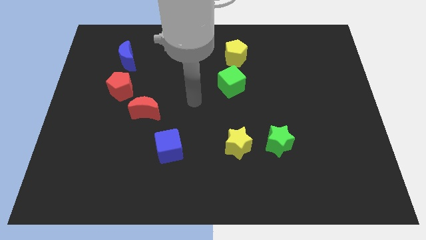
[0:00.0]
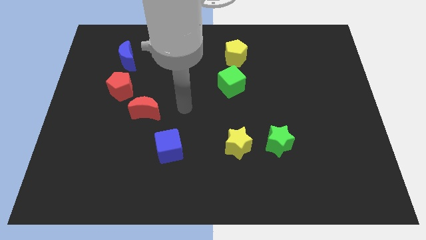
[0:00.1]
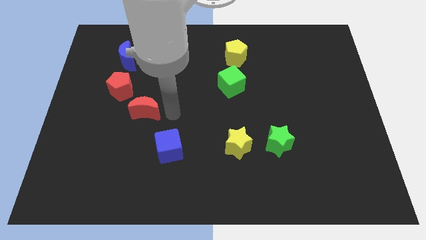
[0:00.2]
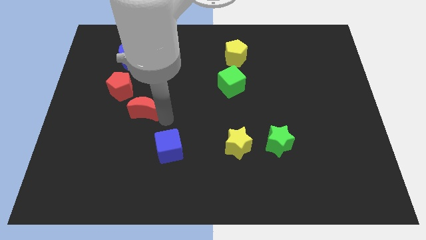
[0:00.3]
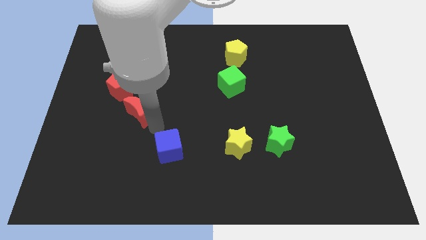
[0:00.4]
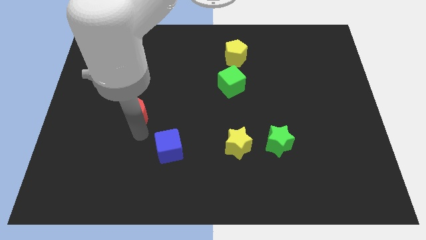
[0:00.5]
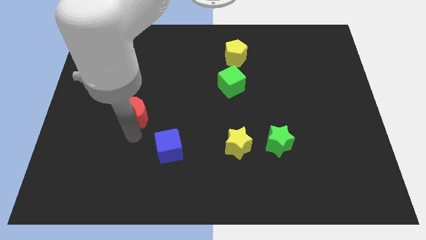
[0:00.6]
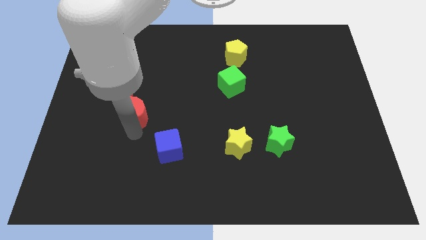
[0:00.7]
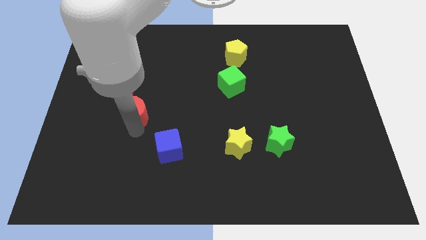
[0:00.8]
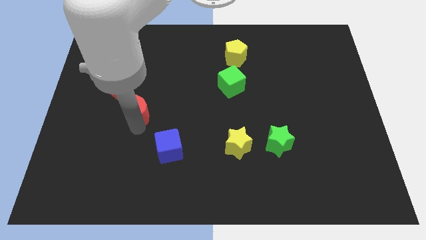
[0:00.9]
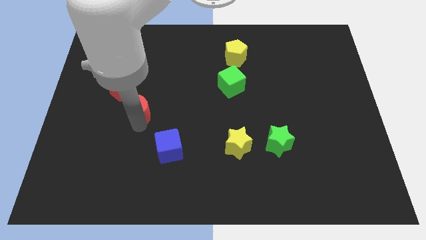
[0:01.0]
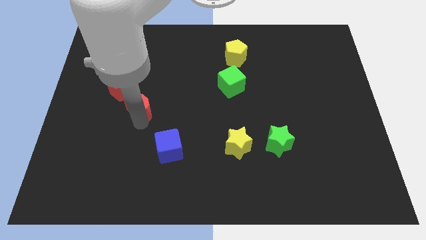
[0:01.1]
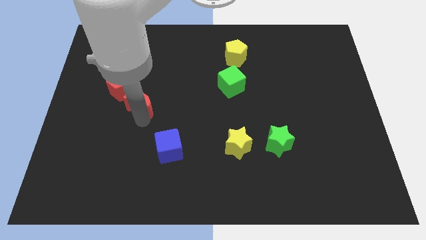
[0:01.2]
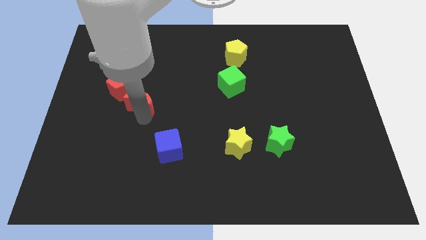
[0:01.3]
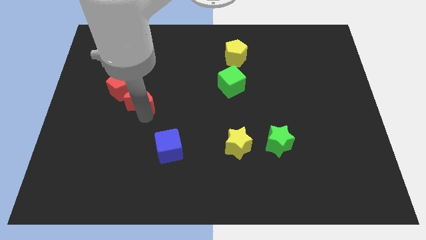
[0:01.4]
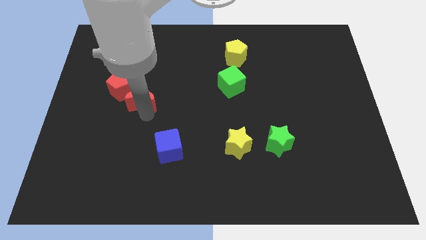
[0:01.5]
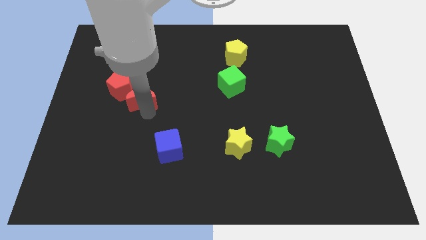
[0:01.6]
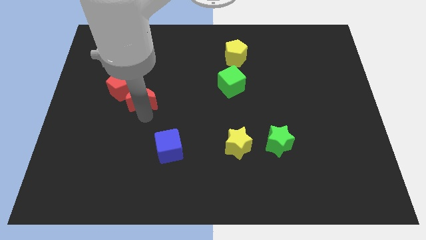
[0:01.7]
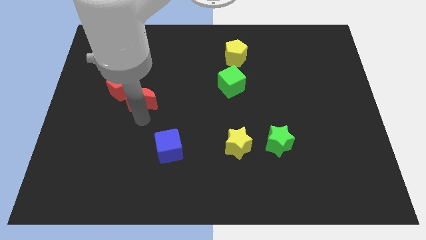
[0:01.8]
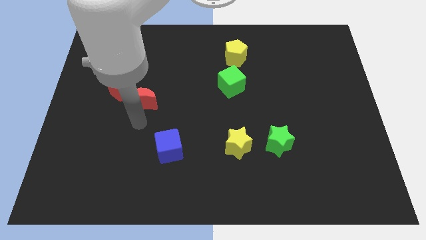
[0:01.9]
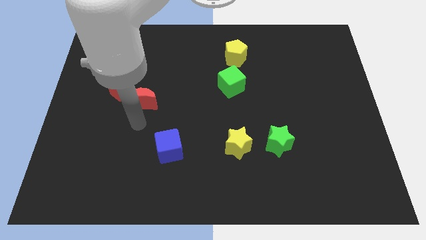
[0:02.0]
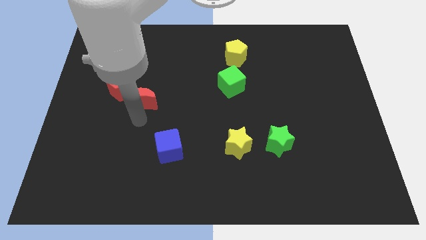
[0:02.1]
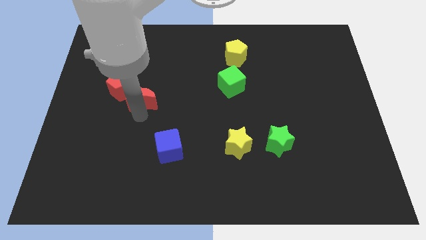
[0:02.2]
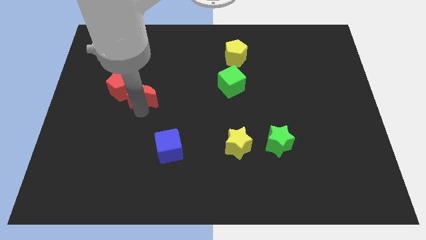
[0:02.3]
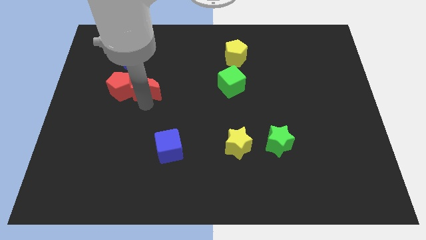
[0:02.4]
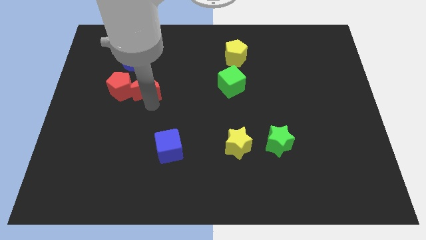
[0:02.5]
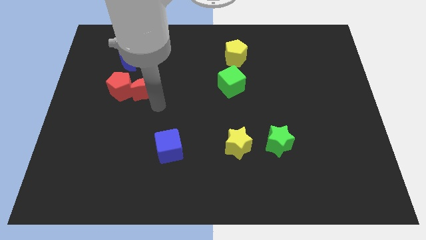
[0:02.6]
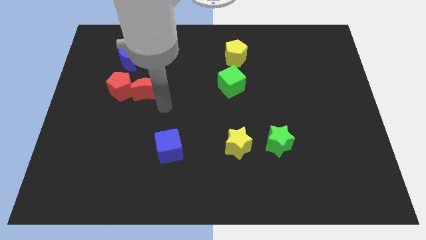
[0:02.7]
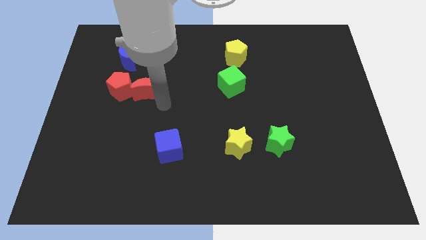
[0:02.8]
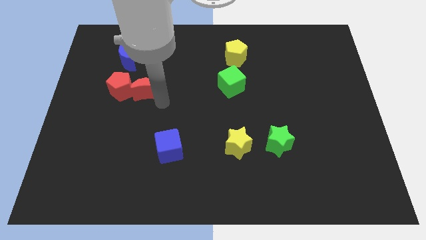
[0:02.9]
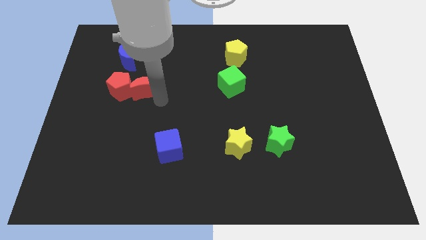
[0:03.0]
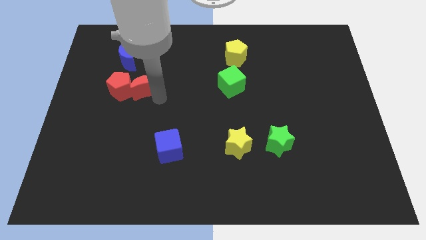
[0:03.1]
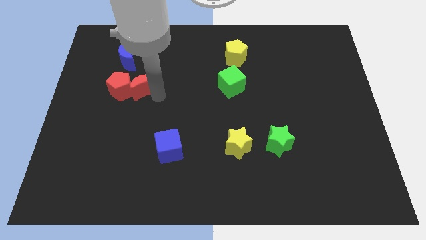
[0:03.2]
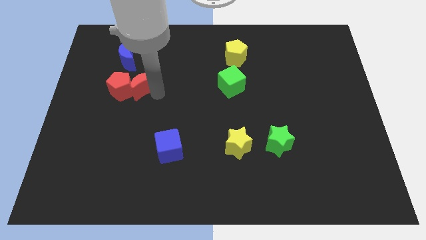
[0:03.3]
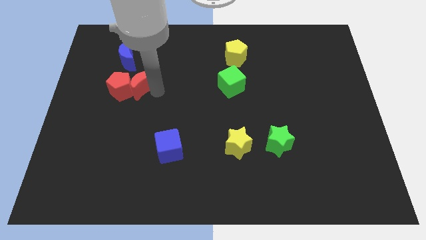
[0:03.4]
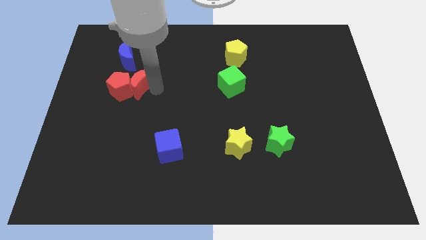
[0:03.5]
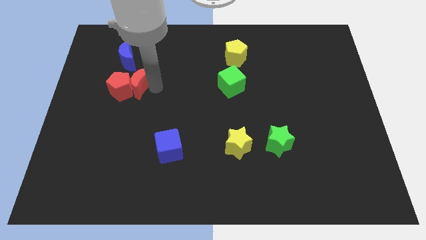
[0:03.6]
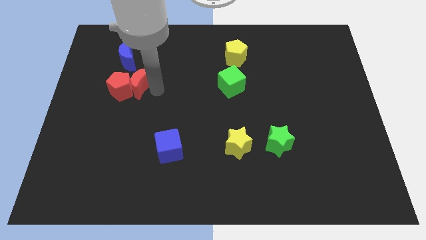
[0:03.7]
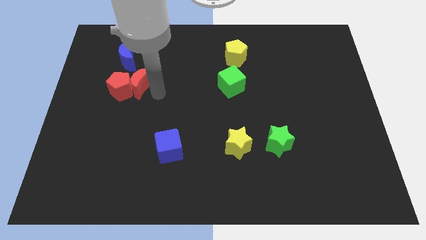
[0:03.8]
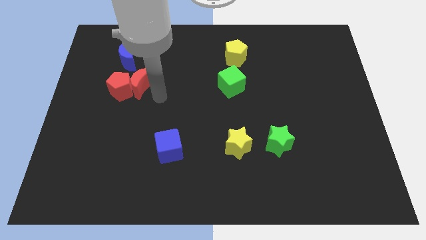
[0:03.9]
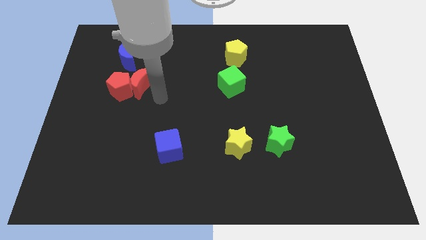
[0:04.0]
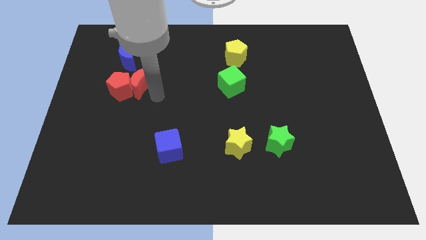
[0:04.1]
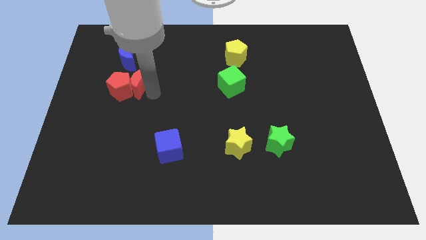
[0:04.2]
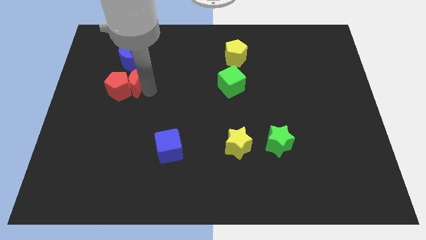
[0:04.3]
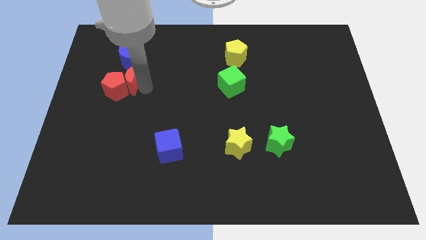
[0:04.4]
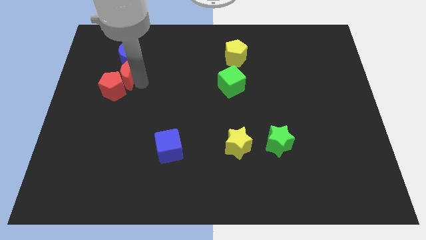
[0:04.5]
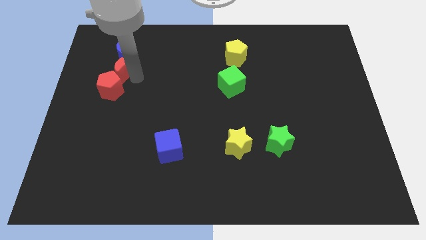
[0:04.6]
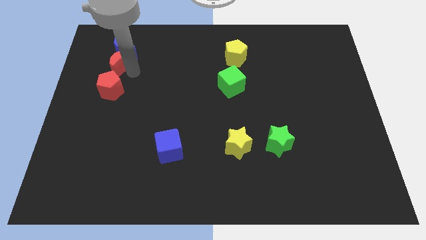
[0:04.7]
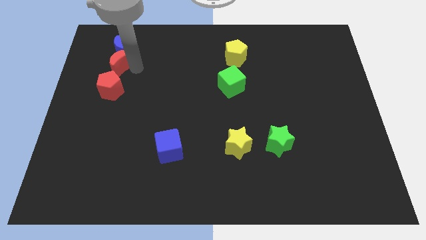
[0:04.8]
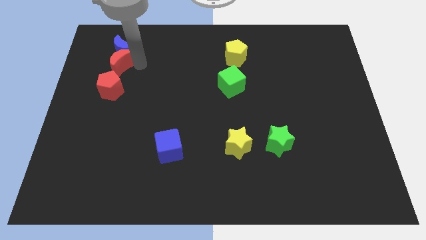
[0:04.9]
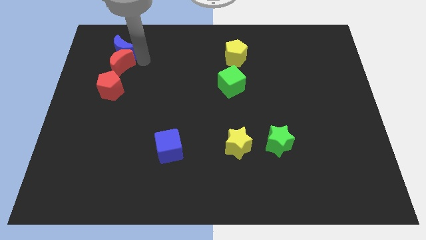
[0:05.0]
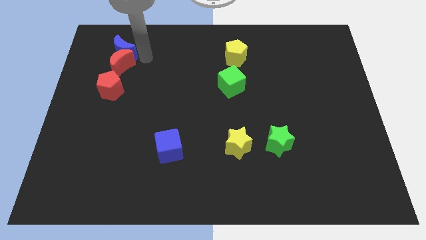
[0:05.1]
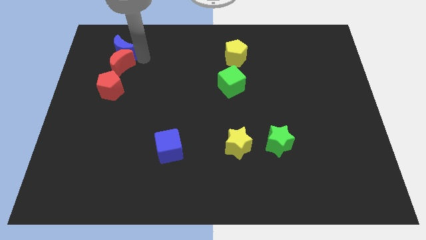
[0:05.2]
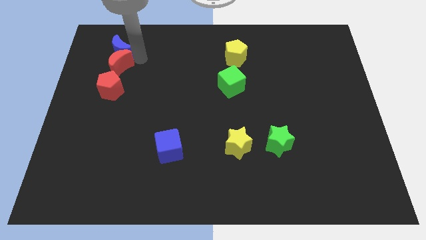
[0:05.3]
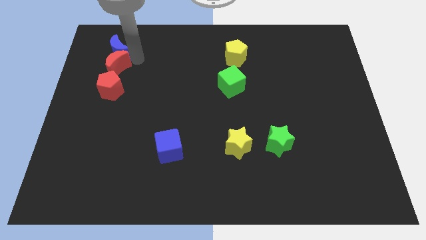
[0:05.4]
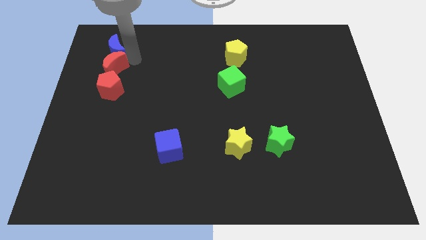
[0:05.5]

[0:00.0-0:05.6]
push the red moon to the top left of the red pentagon

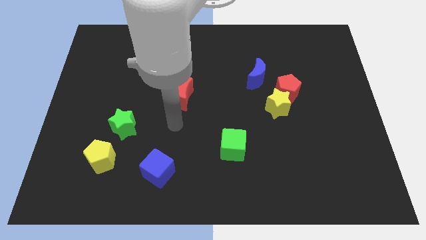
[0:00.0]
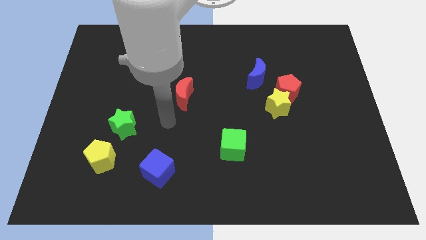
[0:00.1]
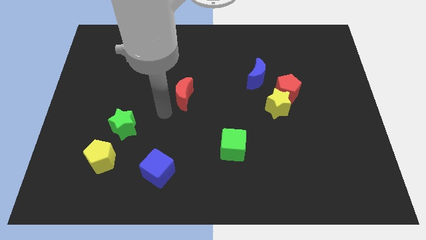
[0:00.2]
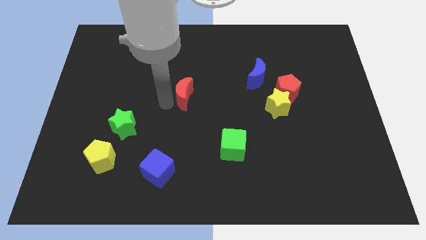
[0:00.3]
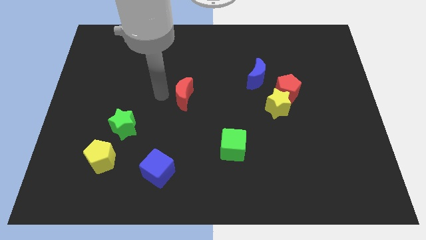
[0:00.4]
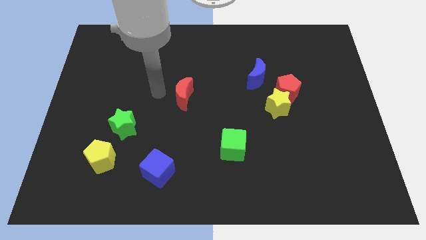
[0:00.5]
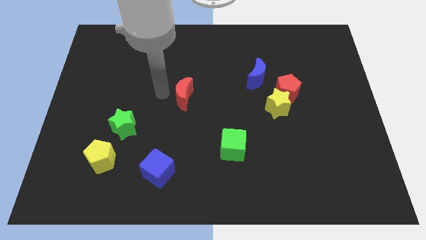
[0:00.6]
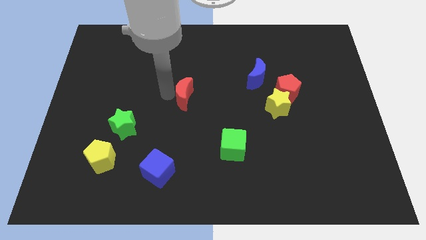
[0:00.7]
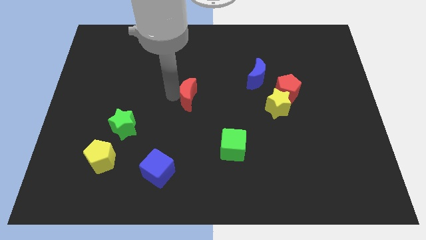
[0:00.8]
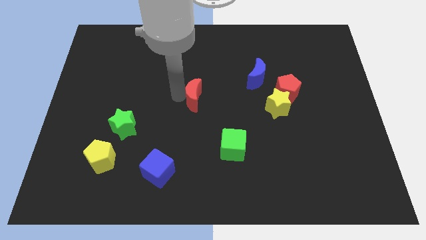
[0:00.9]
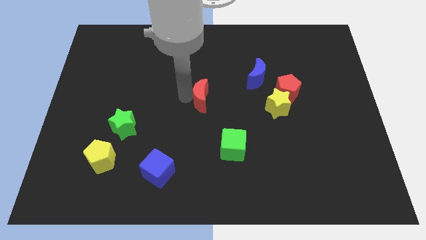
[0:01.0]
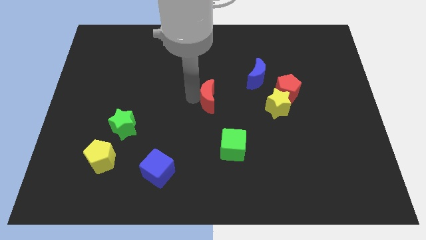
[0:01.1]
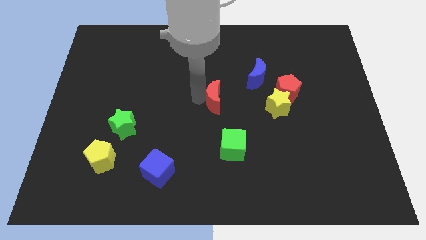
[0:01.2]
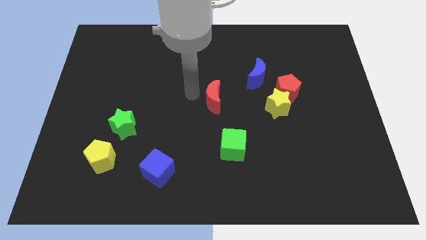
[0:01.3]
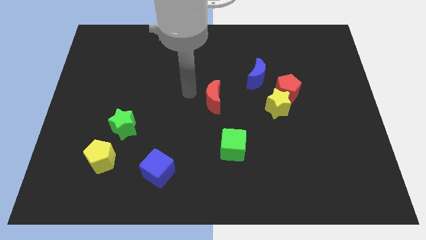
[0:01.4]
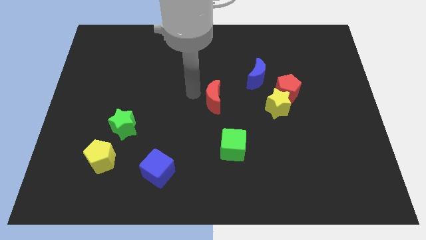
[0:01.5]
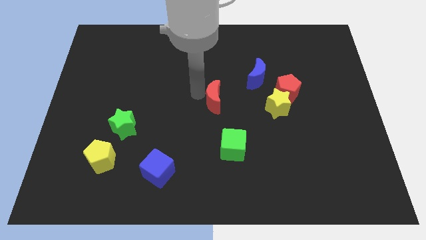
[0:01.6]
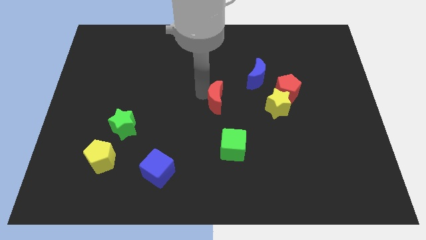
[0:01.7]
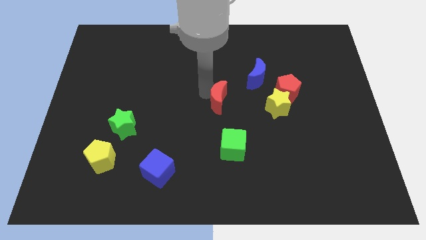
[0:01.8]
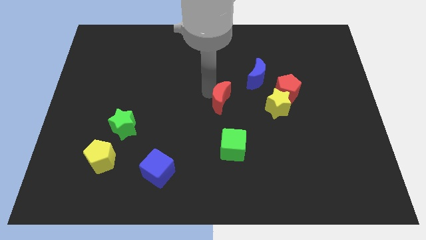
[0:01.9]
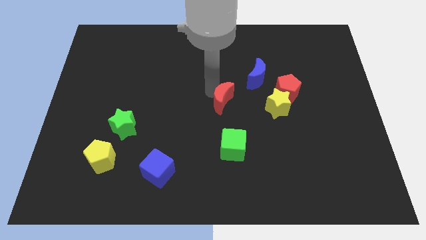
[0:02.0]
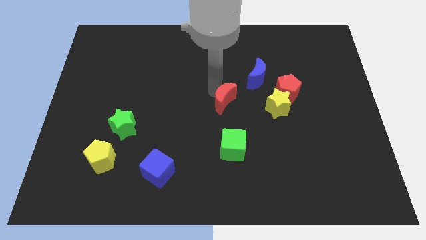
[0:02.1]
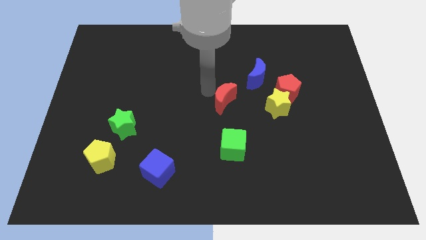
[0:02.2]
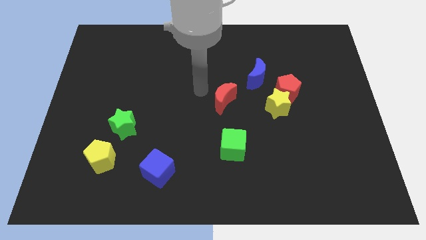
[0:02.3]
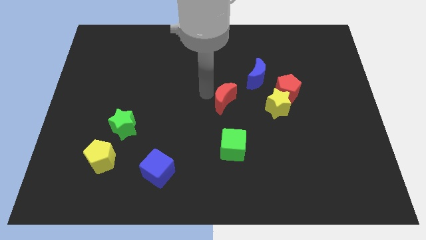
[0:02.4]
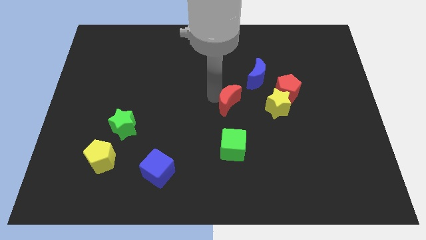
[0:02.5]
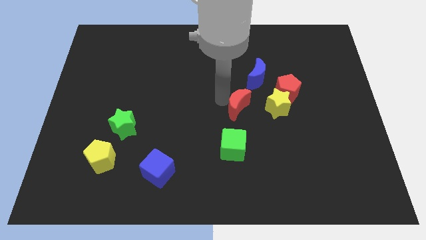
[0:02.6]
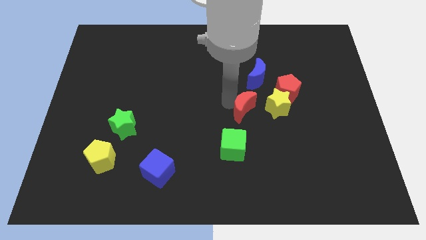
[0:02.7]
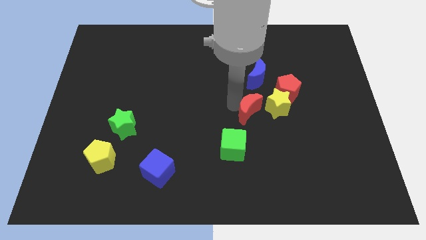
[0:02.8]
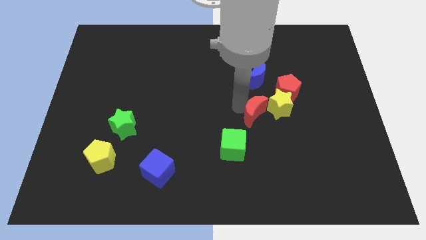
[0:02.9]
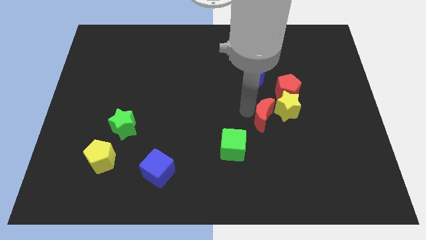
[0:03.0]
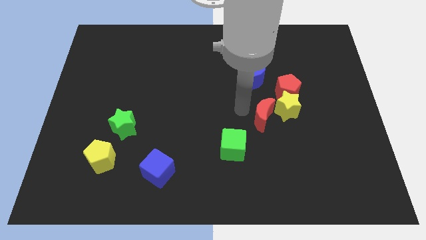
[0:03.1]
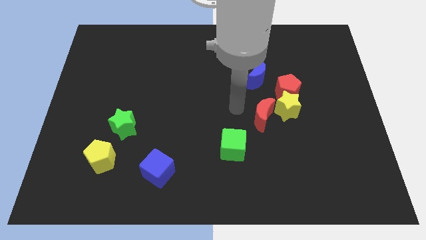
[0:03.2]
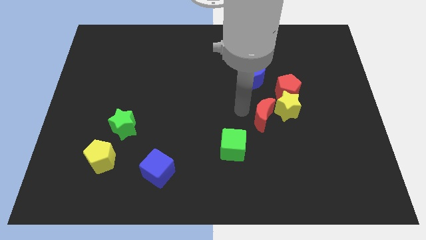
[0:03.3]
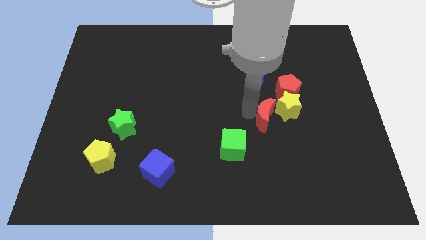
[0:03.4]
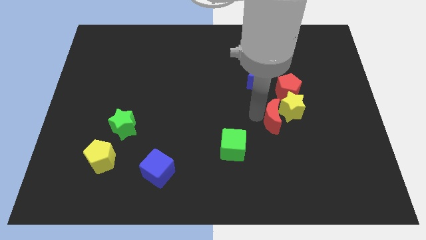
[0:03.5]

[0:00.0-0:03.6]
move the red moon to the bottom side of the red pentagon
